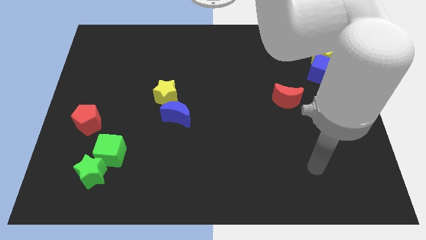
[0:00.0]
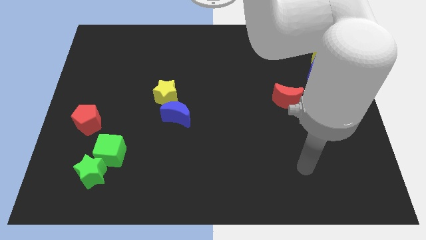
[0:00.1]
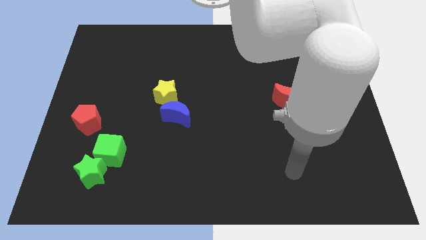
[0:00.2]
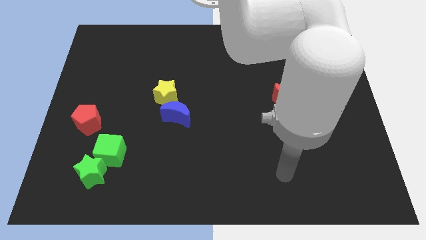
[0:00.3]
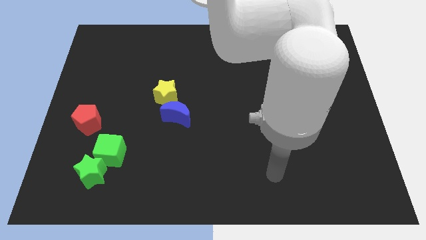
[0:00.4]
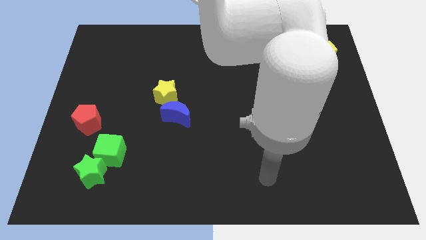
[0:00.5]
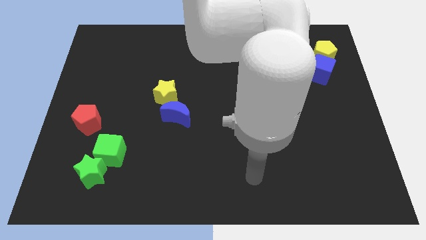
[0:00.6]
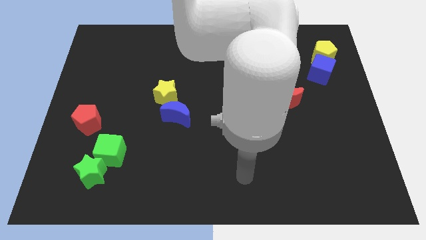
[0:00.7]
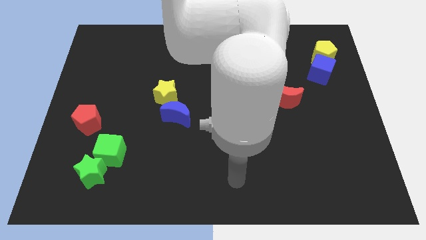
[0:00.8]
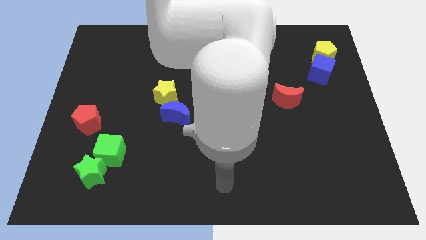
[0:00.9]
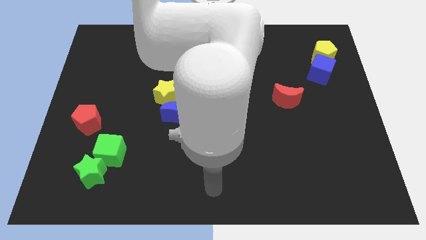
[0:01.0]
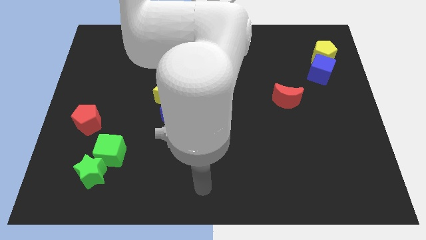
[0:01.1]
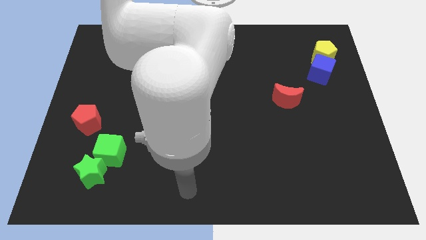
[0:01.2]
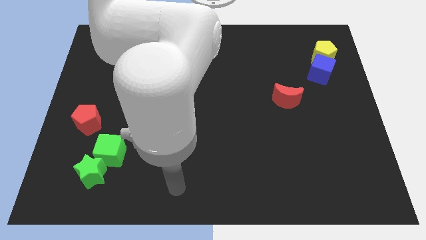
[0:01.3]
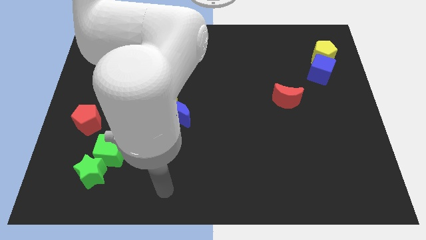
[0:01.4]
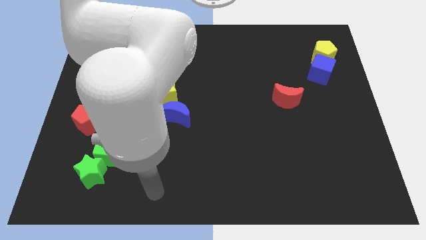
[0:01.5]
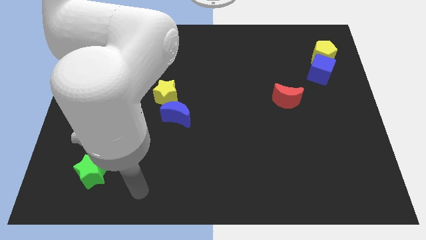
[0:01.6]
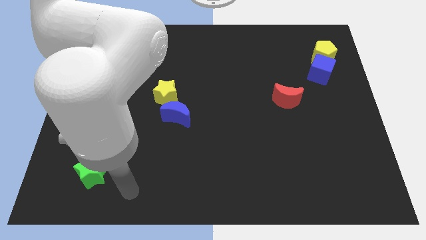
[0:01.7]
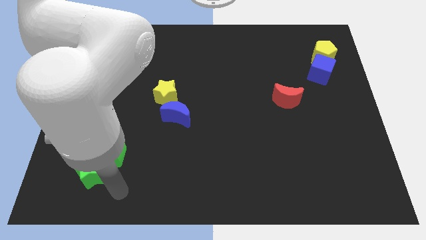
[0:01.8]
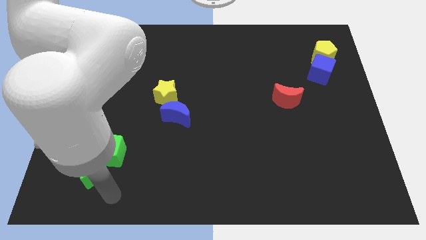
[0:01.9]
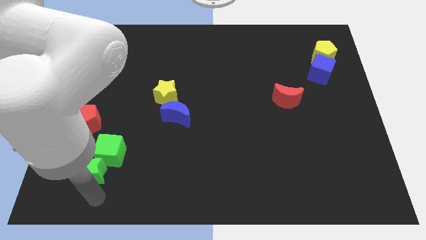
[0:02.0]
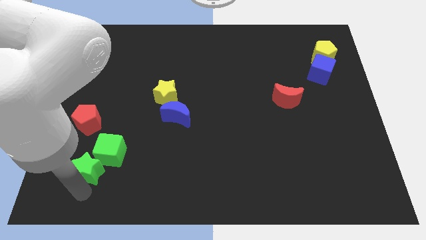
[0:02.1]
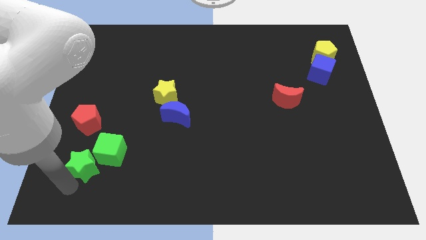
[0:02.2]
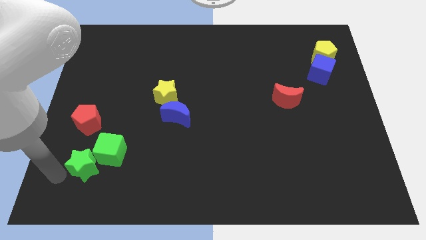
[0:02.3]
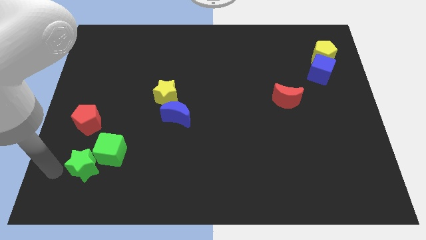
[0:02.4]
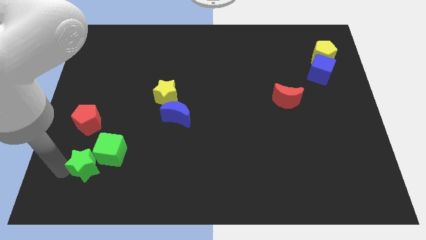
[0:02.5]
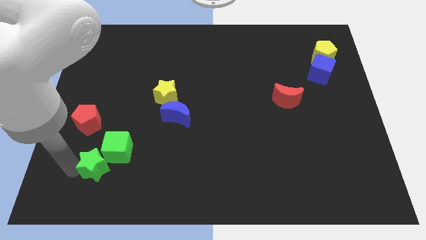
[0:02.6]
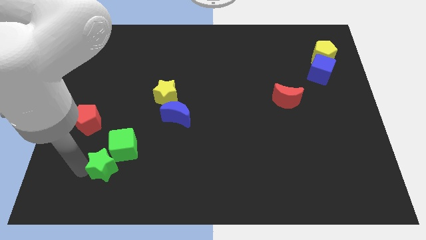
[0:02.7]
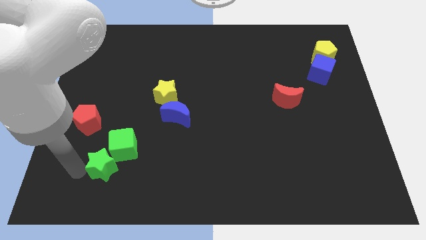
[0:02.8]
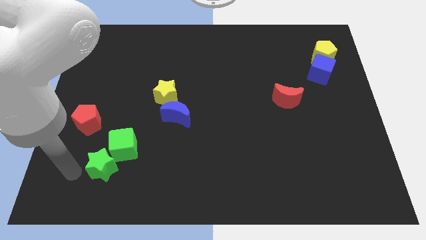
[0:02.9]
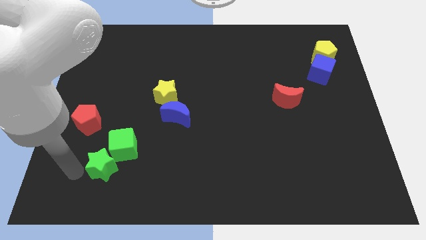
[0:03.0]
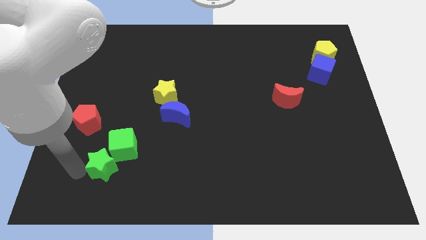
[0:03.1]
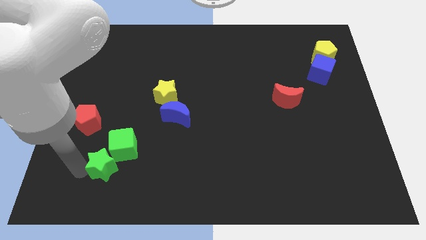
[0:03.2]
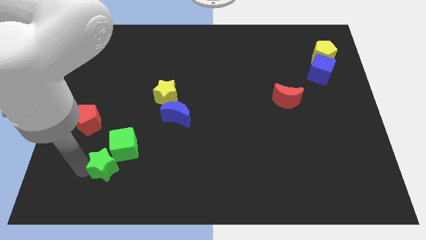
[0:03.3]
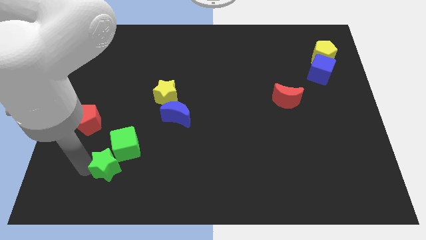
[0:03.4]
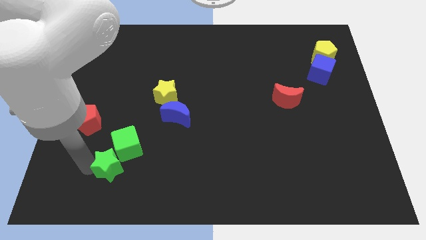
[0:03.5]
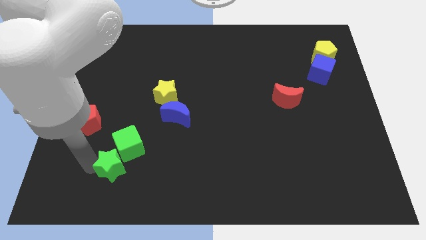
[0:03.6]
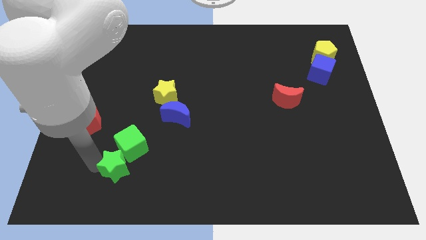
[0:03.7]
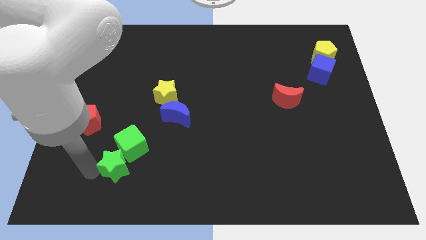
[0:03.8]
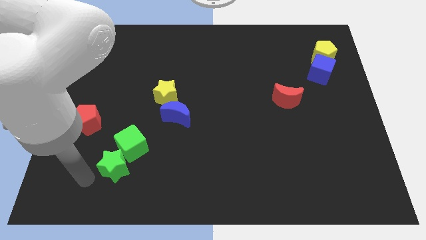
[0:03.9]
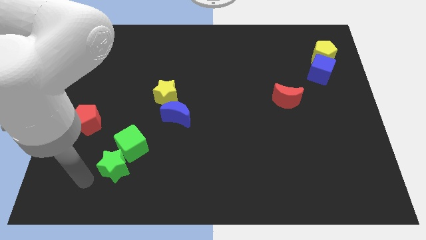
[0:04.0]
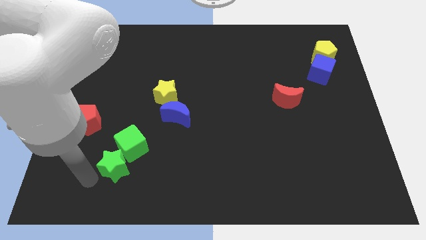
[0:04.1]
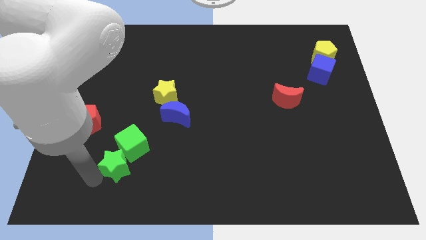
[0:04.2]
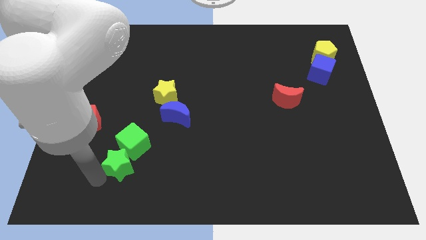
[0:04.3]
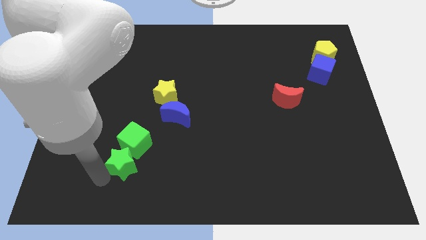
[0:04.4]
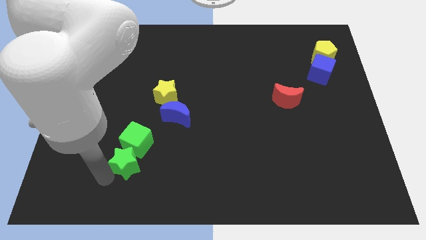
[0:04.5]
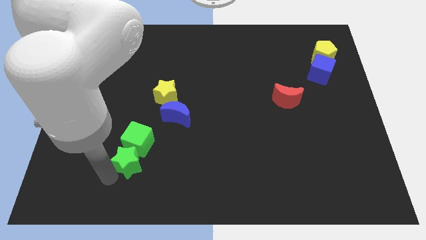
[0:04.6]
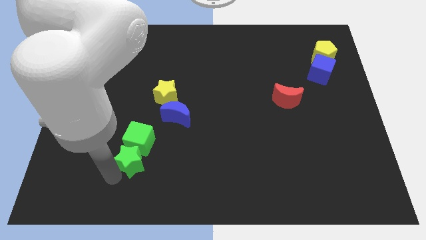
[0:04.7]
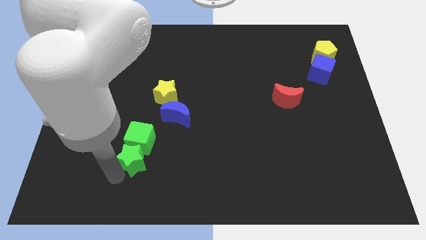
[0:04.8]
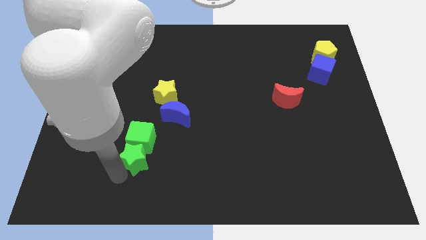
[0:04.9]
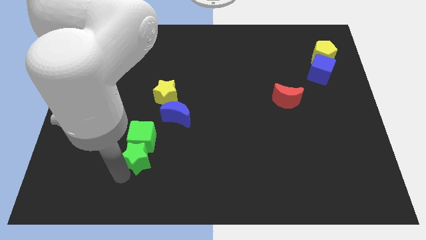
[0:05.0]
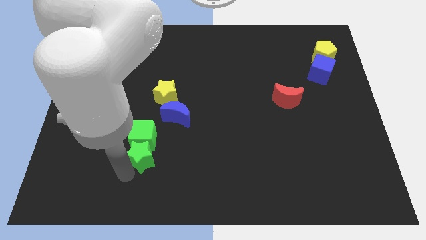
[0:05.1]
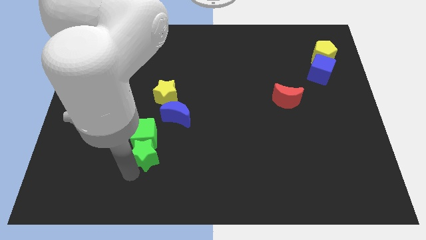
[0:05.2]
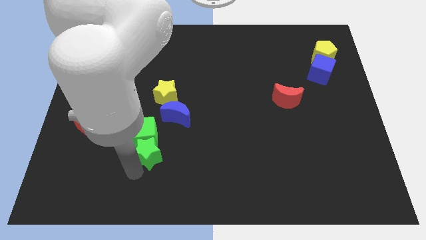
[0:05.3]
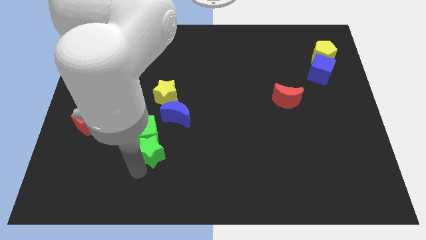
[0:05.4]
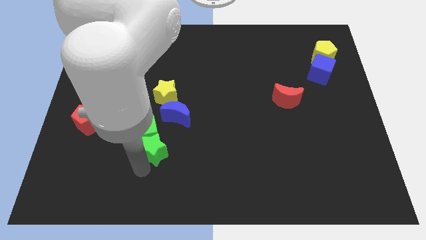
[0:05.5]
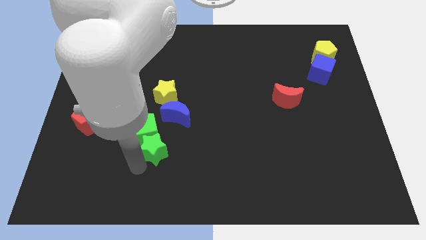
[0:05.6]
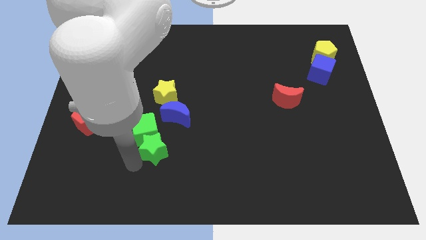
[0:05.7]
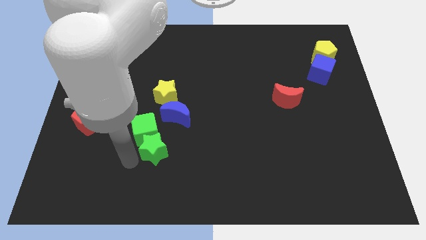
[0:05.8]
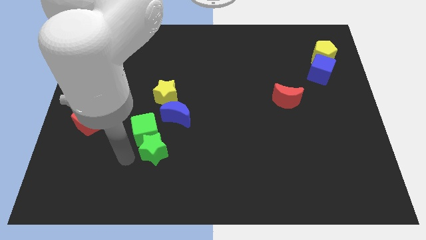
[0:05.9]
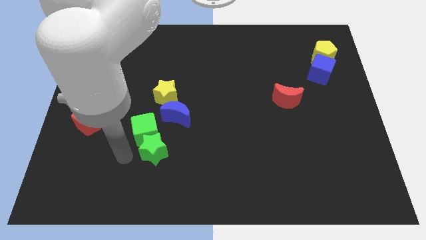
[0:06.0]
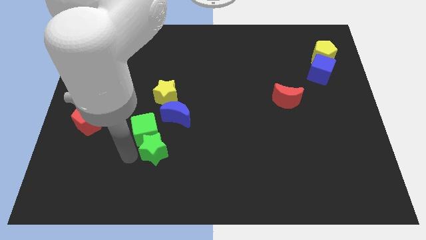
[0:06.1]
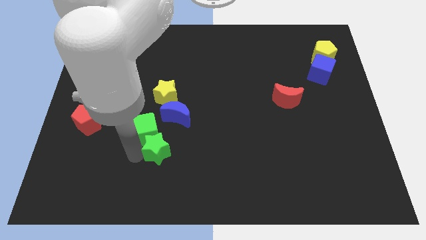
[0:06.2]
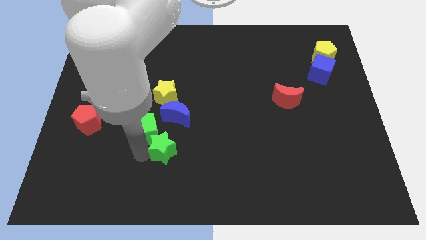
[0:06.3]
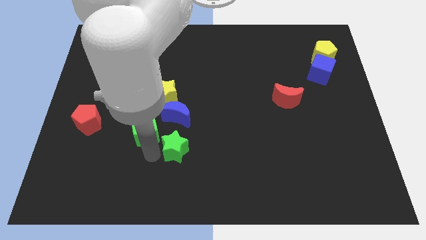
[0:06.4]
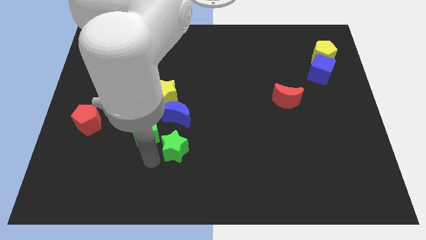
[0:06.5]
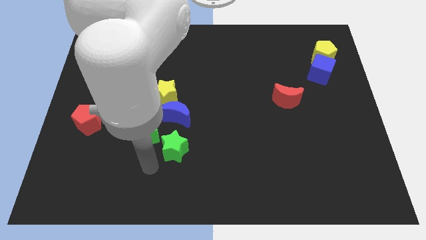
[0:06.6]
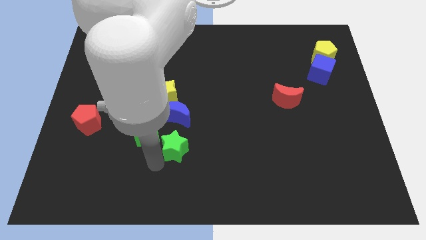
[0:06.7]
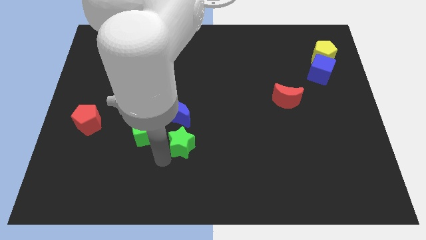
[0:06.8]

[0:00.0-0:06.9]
push the green star diagonally down and to the right of the blue moon
